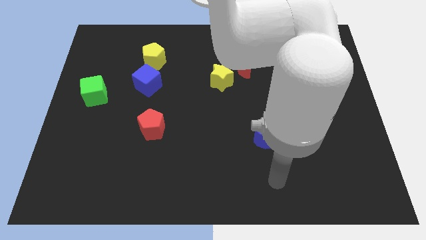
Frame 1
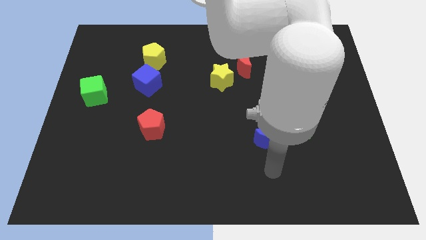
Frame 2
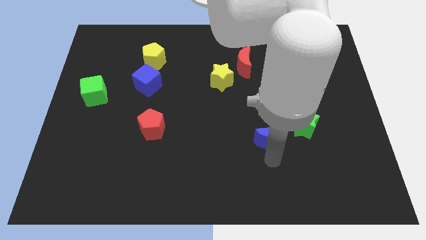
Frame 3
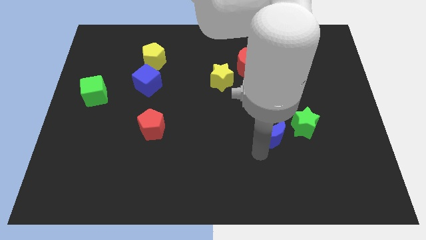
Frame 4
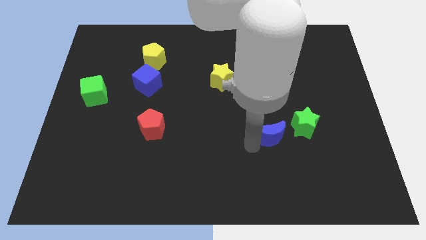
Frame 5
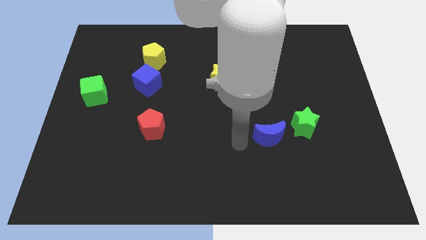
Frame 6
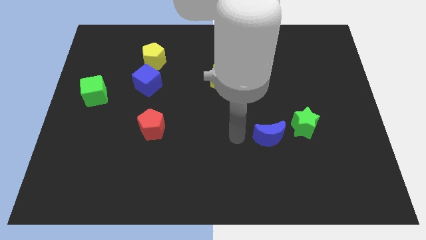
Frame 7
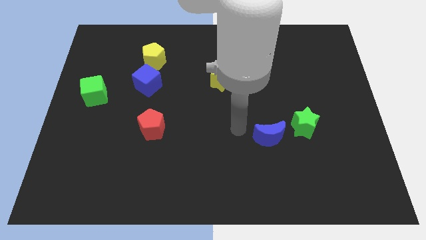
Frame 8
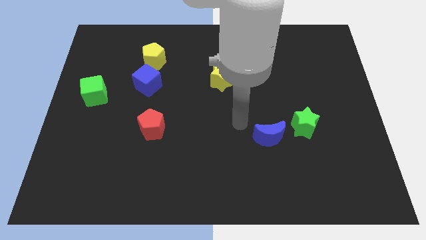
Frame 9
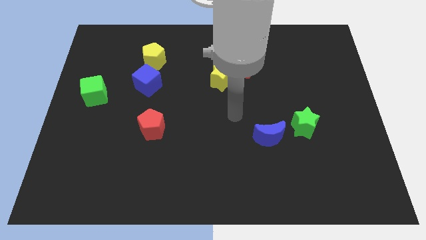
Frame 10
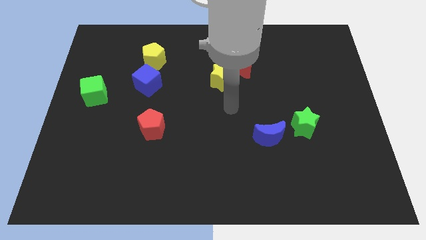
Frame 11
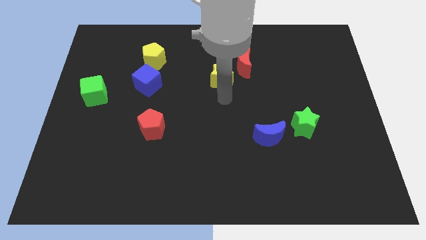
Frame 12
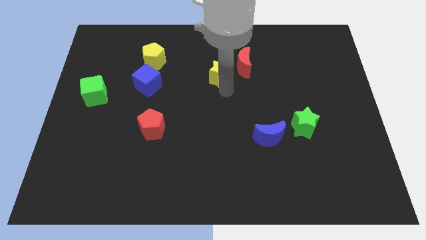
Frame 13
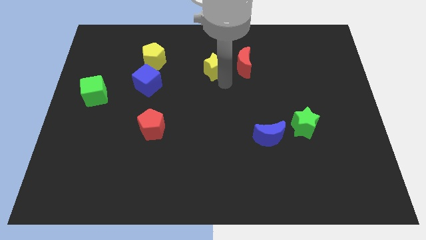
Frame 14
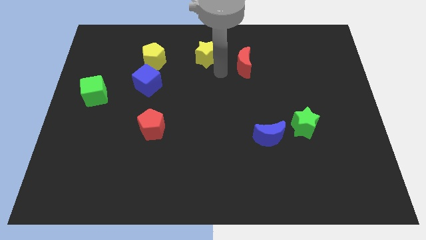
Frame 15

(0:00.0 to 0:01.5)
separate the red moon from the yellow star

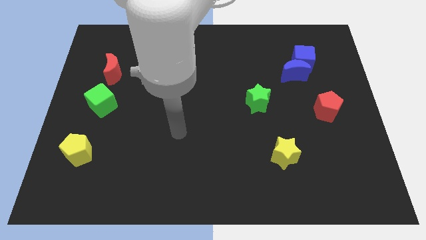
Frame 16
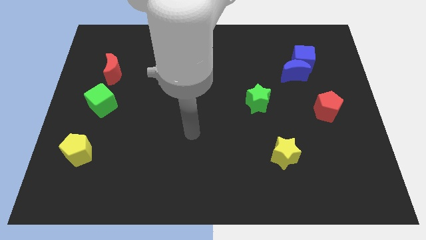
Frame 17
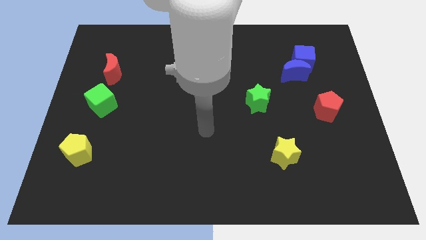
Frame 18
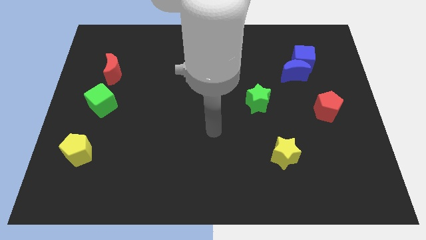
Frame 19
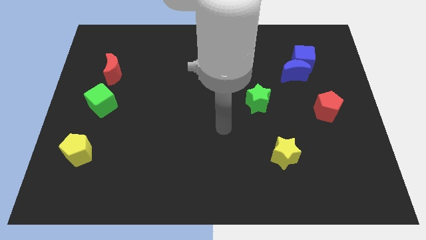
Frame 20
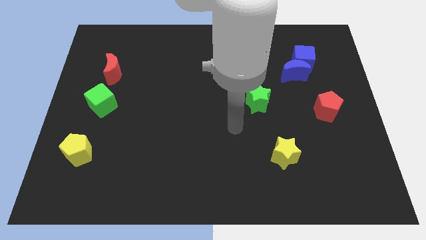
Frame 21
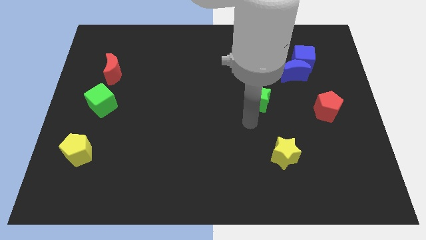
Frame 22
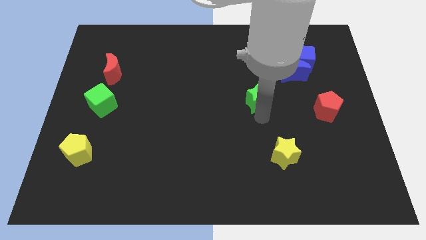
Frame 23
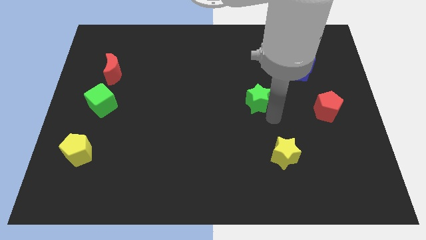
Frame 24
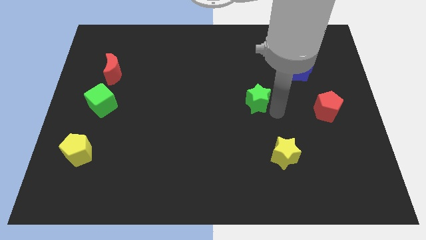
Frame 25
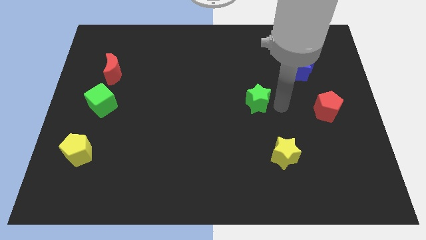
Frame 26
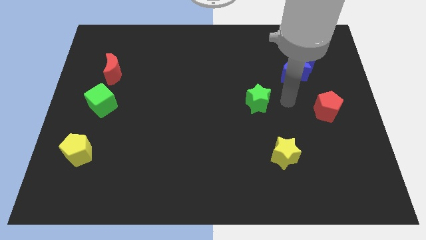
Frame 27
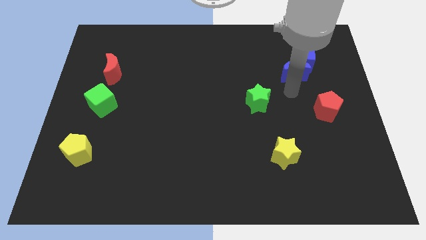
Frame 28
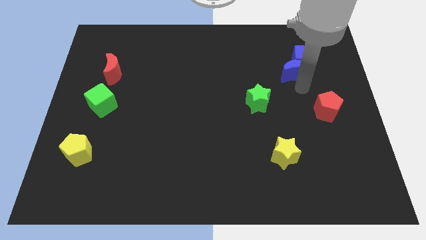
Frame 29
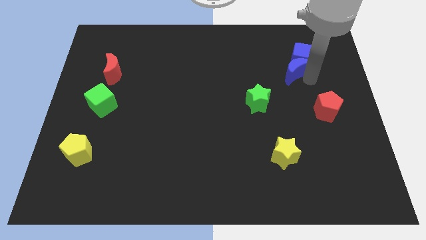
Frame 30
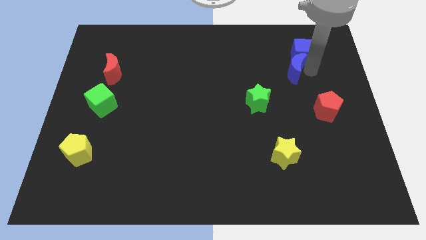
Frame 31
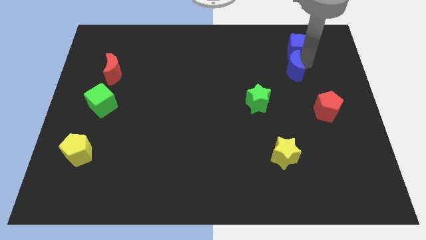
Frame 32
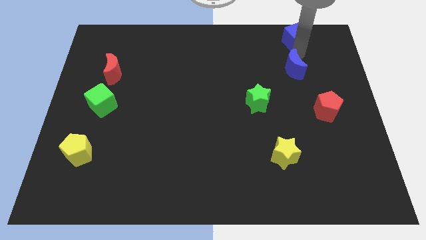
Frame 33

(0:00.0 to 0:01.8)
move the blue moon away from the blue cube

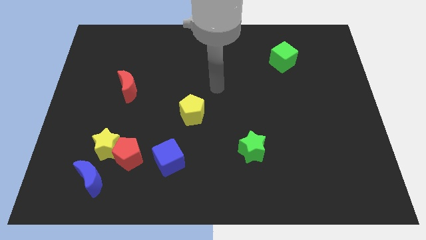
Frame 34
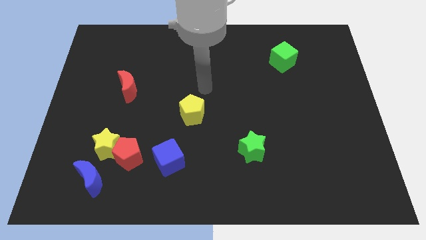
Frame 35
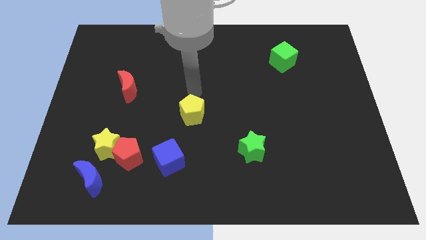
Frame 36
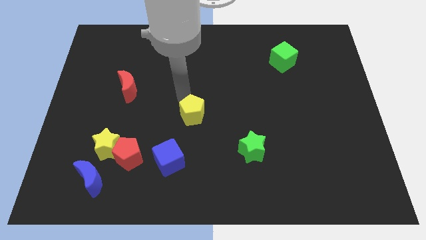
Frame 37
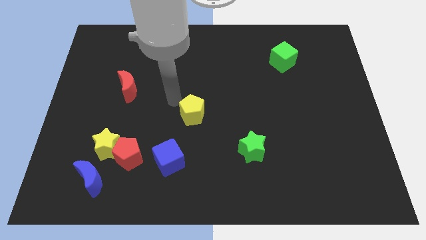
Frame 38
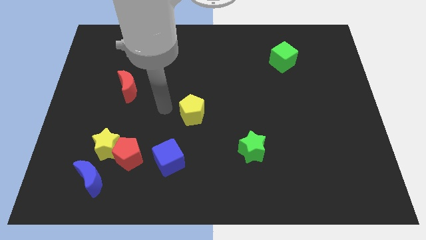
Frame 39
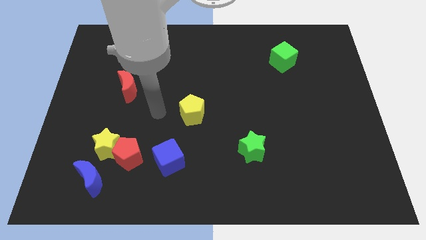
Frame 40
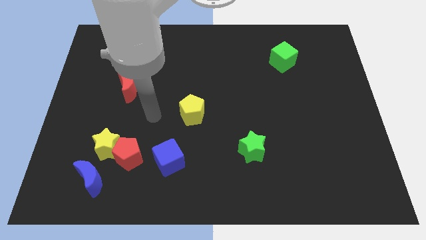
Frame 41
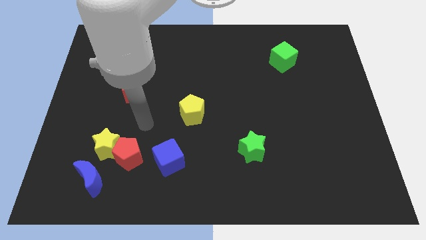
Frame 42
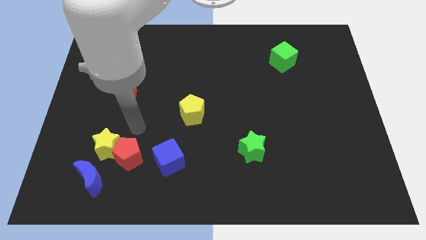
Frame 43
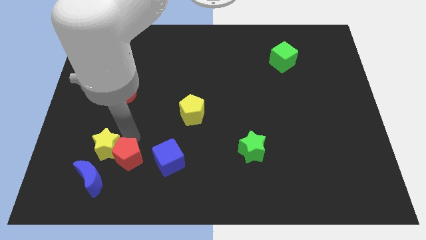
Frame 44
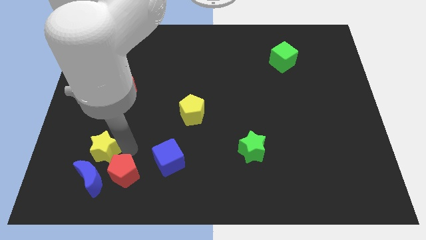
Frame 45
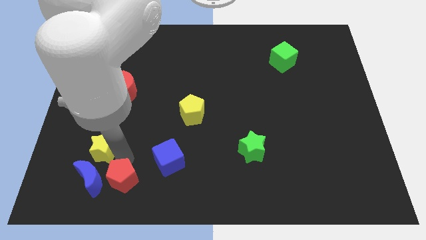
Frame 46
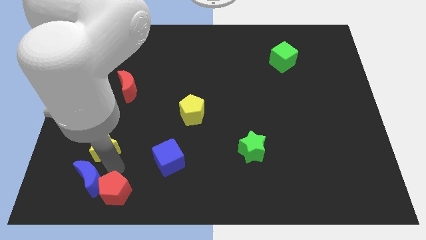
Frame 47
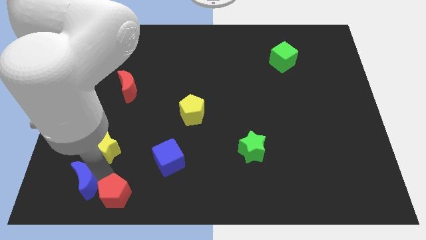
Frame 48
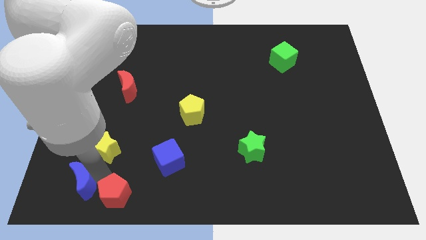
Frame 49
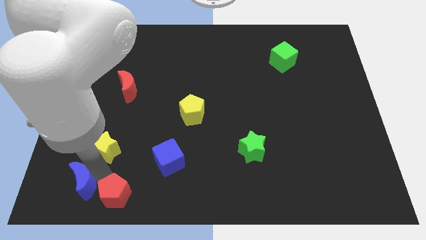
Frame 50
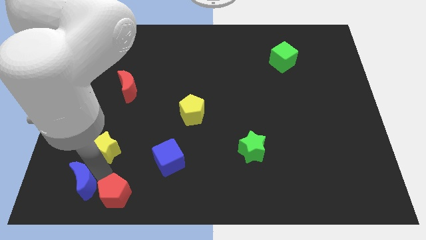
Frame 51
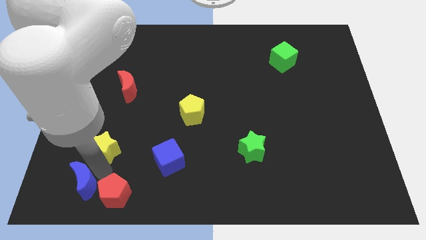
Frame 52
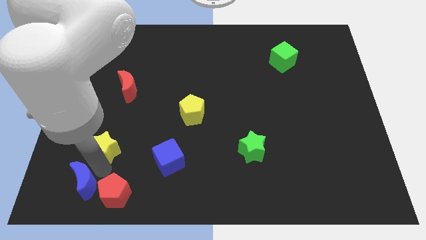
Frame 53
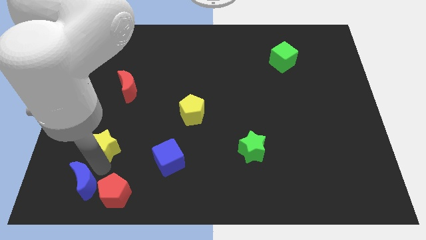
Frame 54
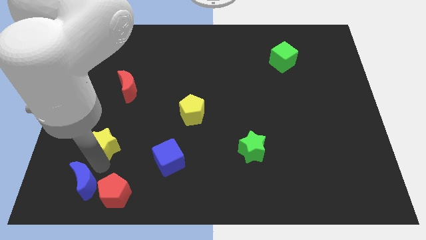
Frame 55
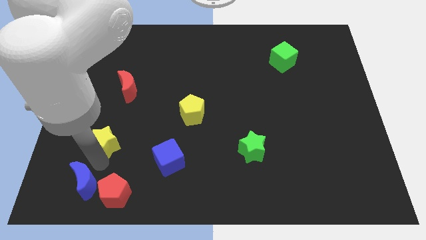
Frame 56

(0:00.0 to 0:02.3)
pull the yellow star apart from the red pentagon and blue moon

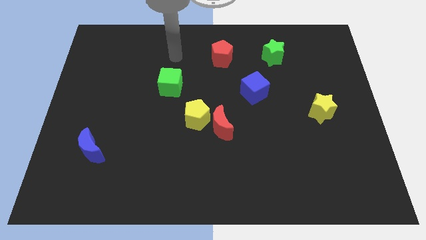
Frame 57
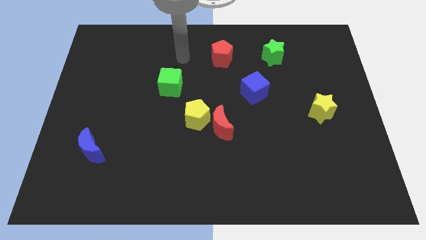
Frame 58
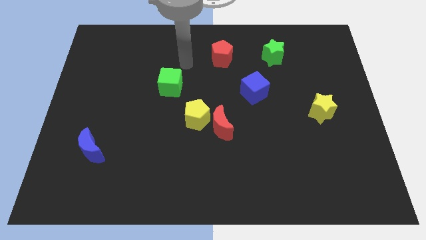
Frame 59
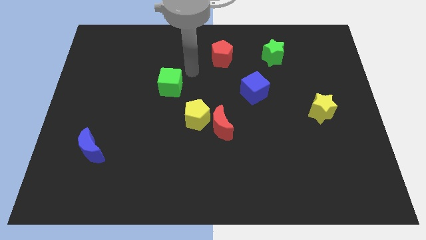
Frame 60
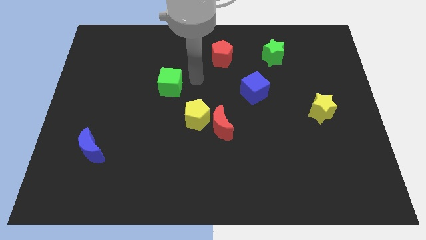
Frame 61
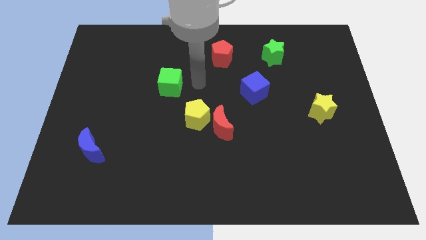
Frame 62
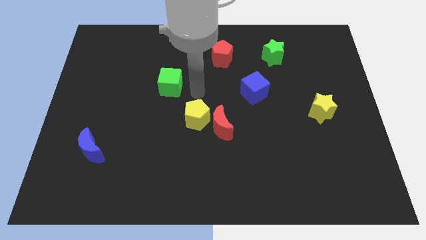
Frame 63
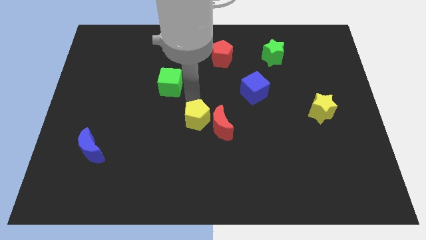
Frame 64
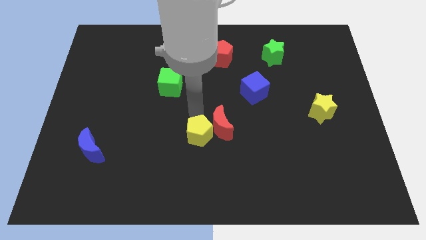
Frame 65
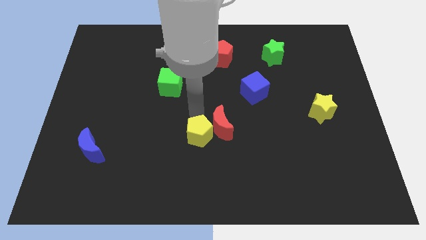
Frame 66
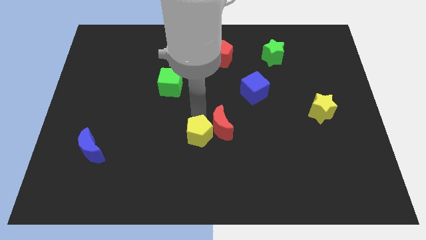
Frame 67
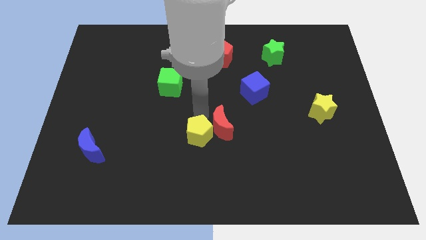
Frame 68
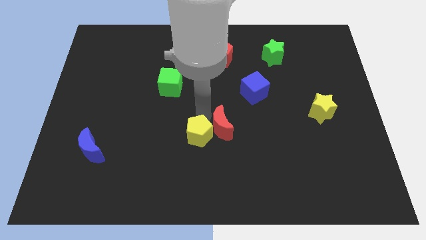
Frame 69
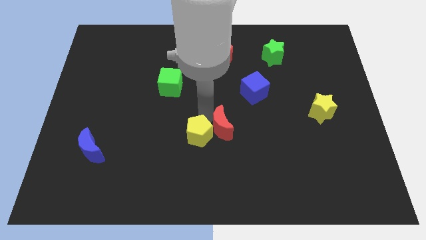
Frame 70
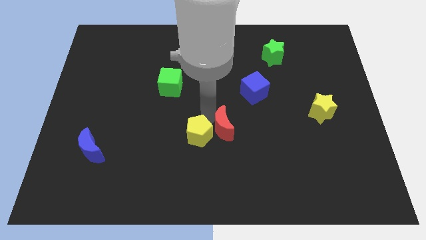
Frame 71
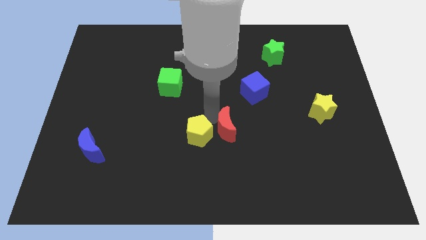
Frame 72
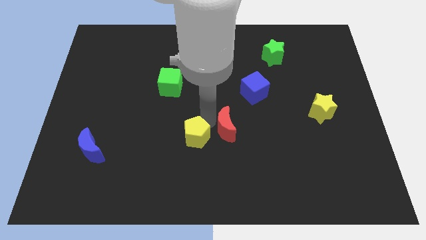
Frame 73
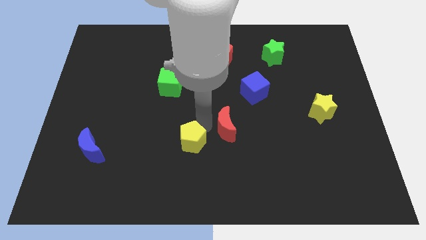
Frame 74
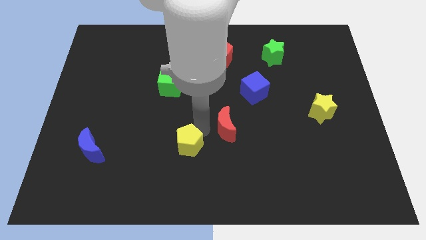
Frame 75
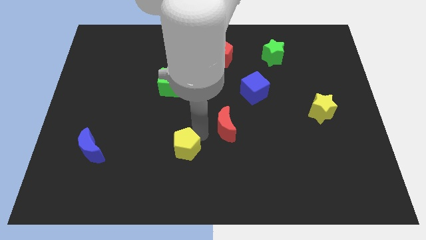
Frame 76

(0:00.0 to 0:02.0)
separate the red moon from the yellow pentagon

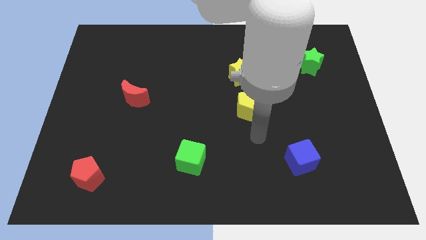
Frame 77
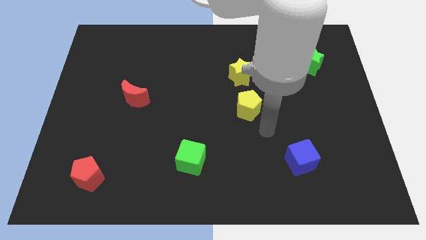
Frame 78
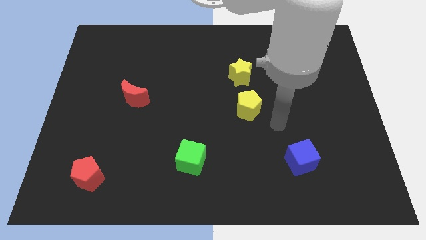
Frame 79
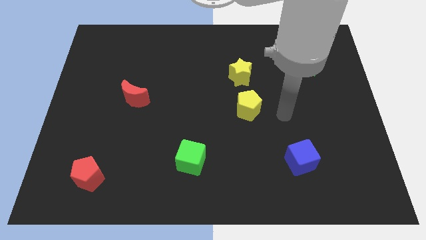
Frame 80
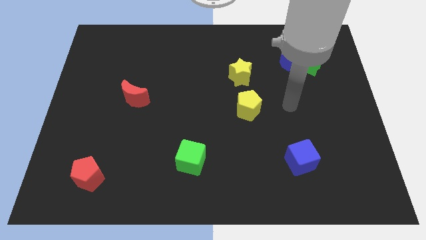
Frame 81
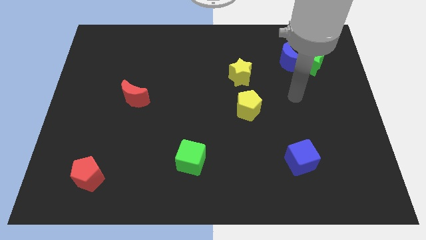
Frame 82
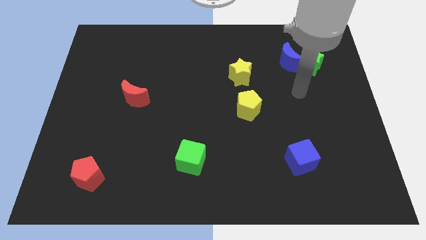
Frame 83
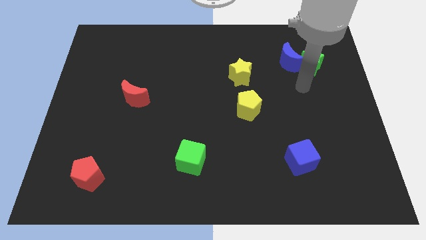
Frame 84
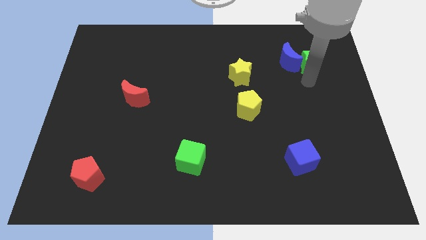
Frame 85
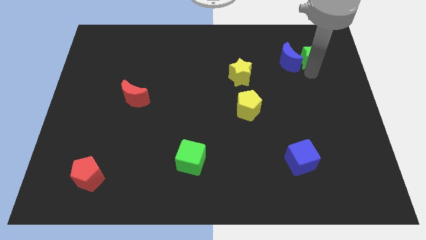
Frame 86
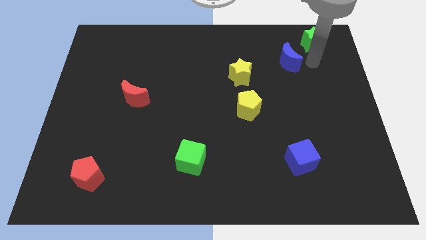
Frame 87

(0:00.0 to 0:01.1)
pull the blue moon apart from the green star

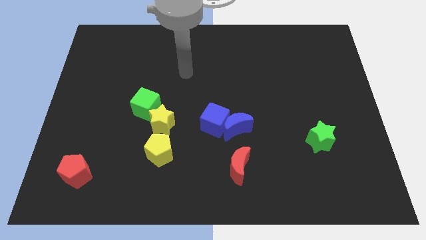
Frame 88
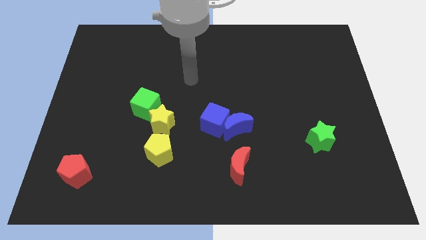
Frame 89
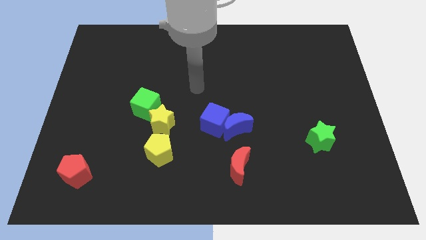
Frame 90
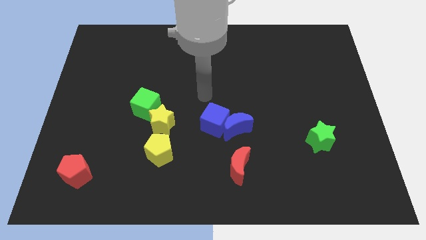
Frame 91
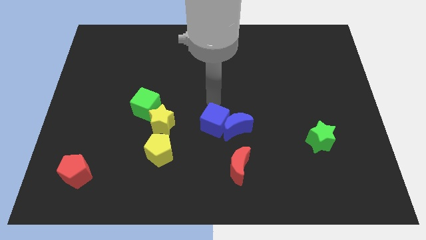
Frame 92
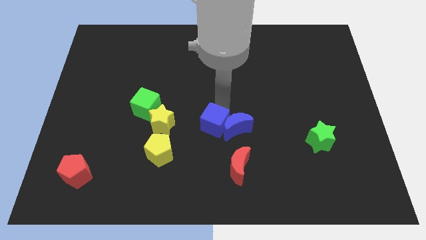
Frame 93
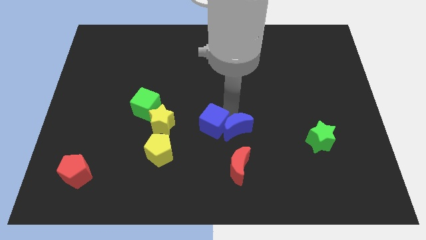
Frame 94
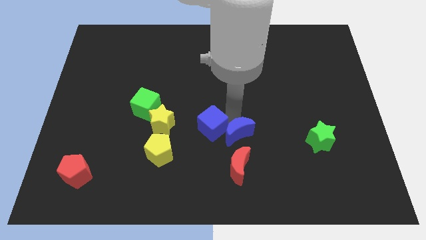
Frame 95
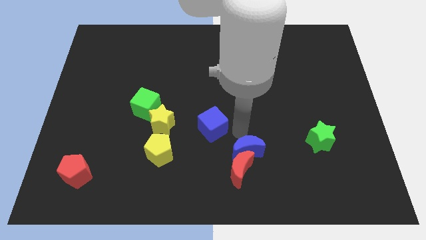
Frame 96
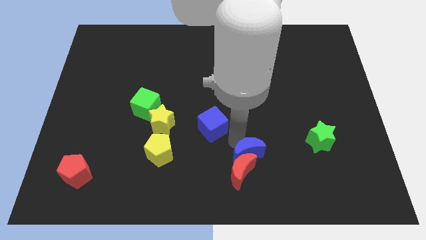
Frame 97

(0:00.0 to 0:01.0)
move the blue cube away from the blue moon
